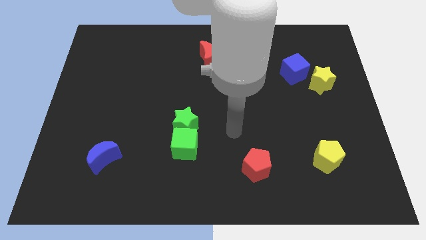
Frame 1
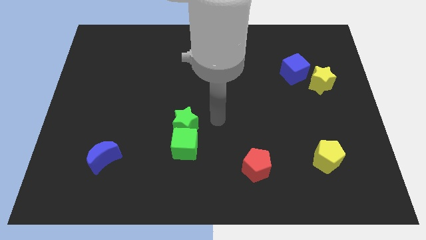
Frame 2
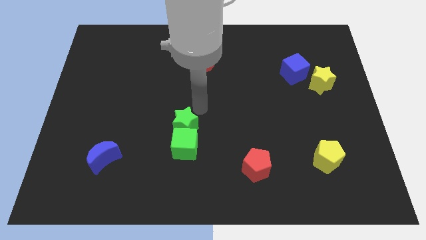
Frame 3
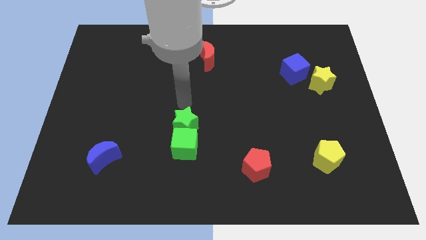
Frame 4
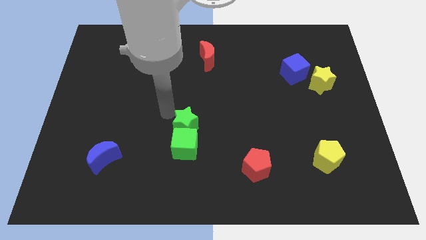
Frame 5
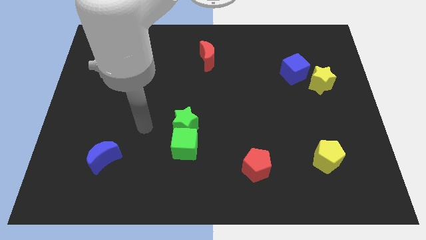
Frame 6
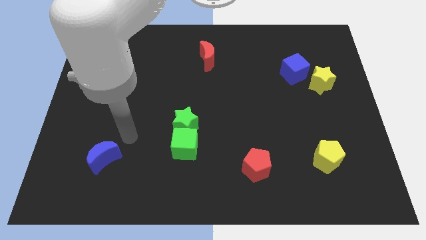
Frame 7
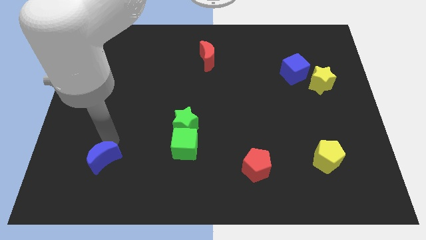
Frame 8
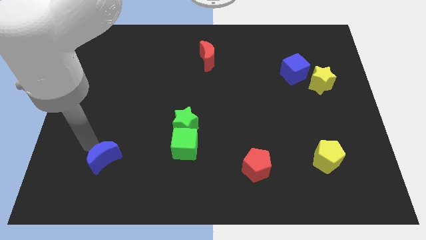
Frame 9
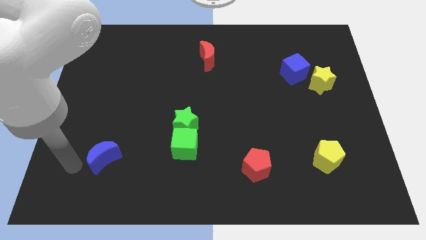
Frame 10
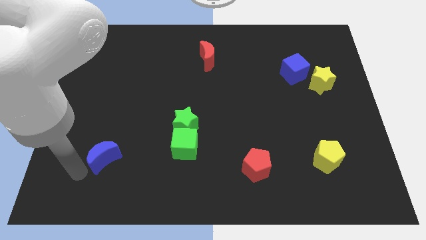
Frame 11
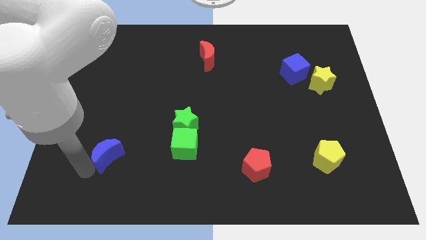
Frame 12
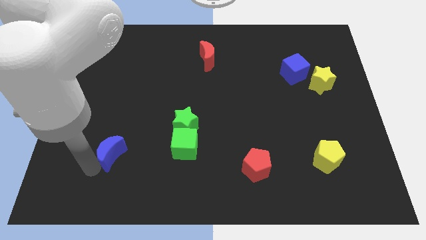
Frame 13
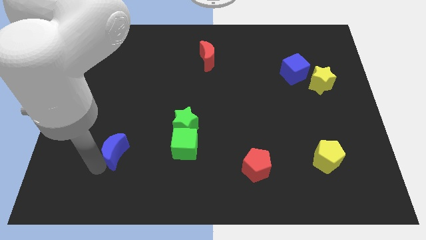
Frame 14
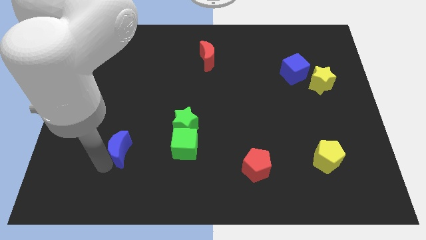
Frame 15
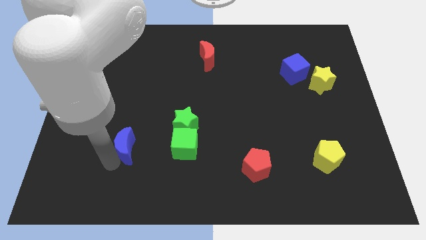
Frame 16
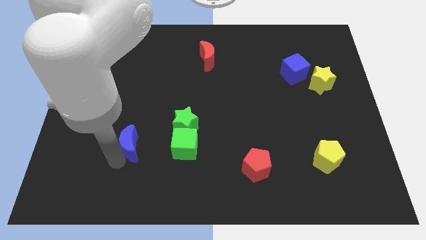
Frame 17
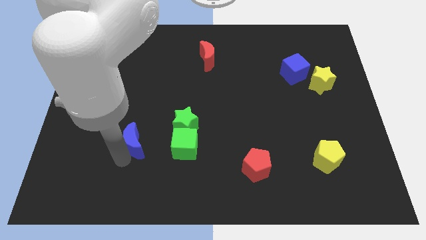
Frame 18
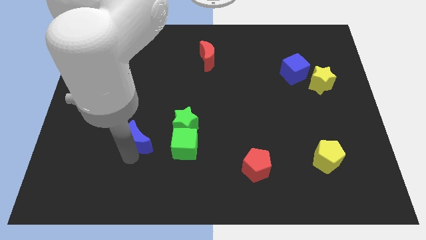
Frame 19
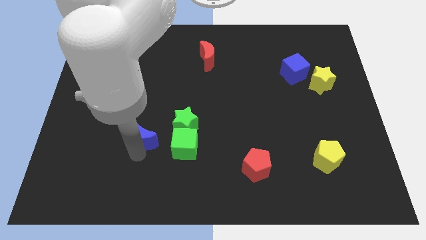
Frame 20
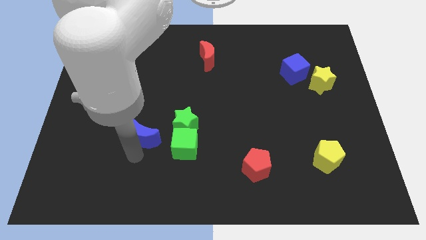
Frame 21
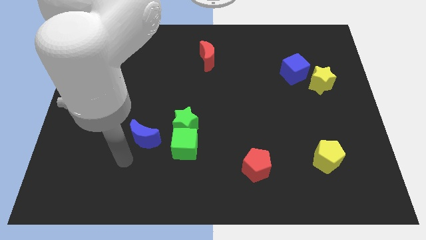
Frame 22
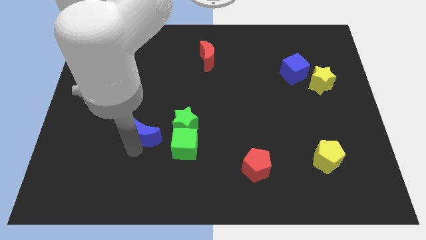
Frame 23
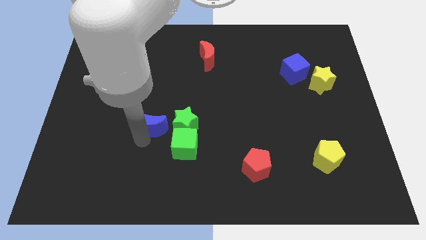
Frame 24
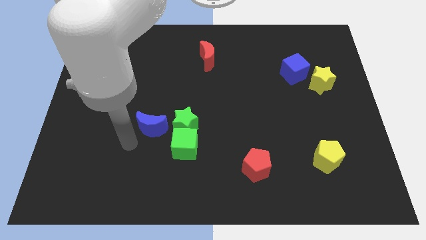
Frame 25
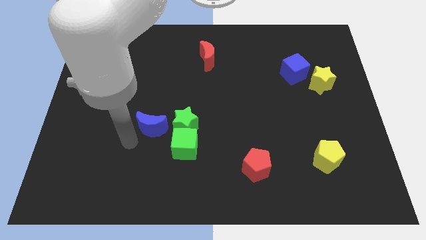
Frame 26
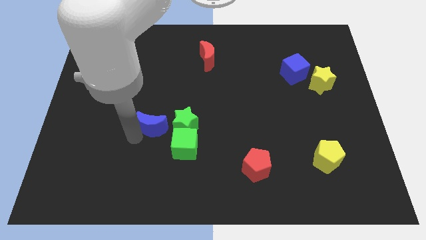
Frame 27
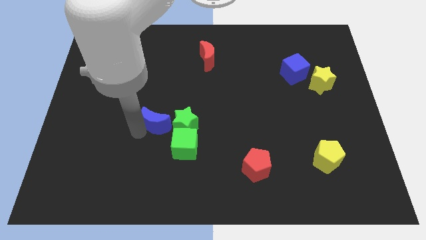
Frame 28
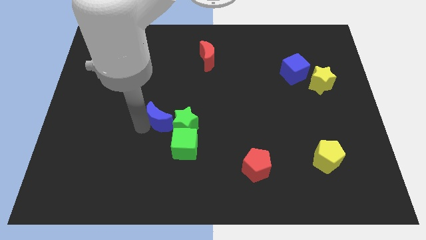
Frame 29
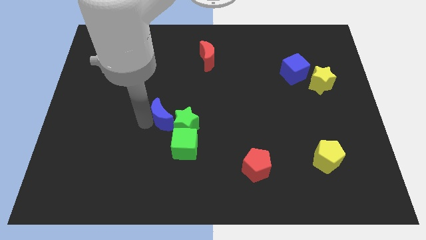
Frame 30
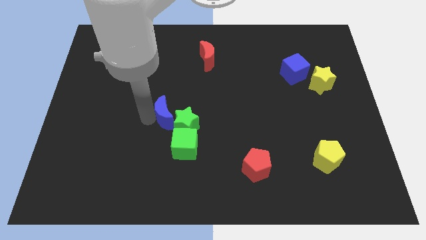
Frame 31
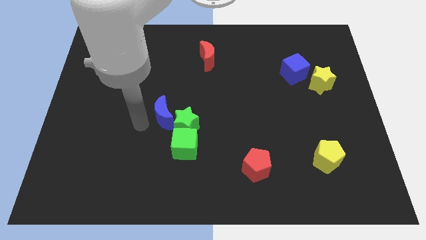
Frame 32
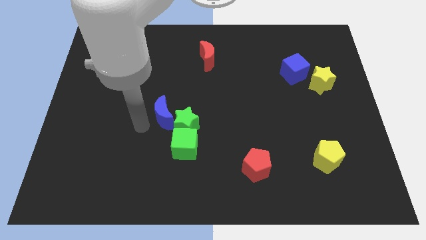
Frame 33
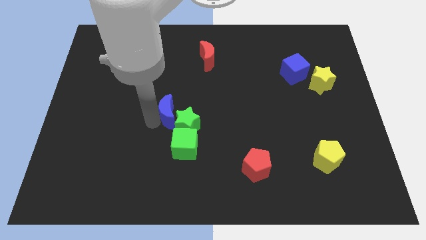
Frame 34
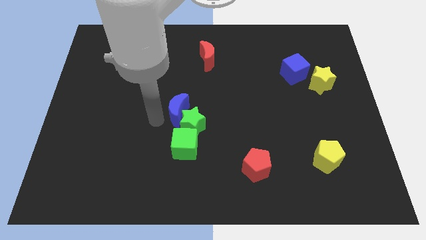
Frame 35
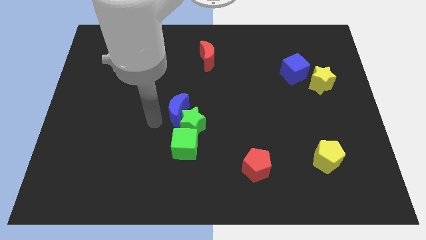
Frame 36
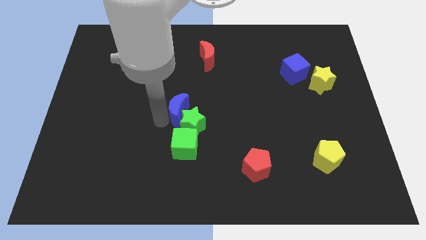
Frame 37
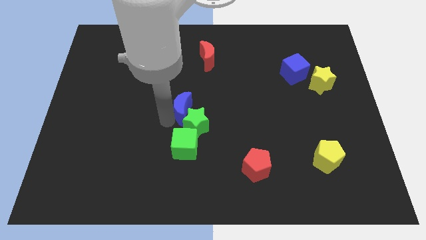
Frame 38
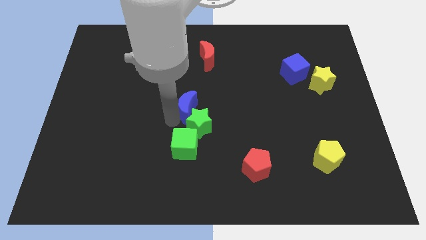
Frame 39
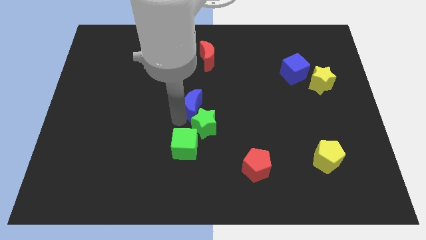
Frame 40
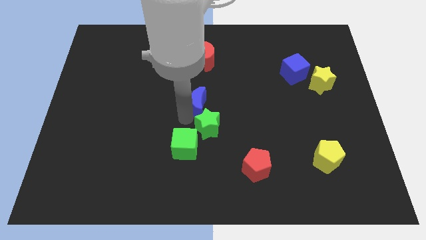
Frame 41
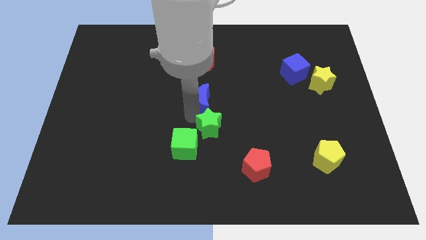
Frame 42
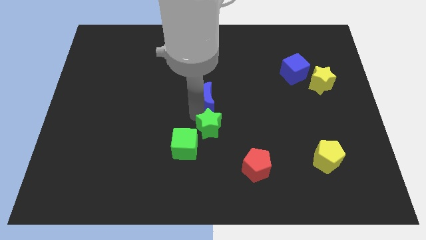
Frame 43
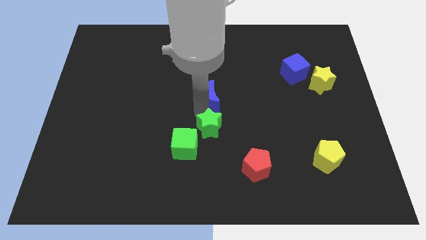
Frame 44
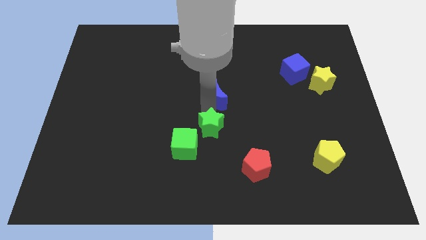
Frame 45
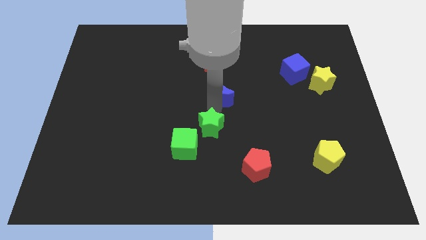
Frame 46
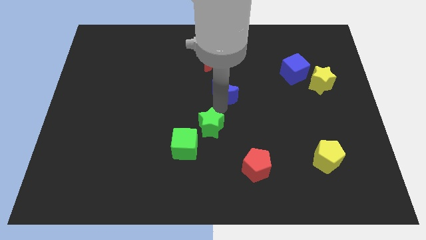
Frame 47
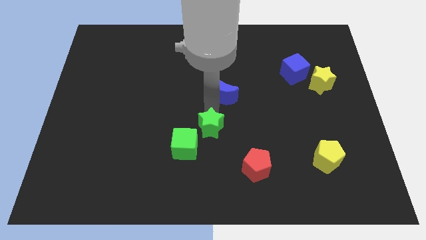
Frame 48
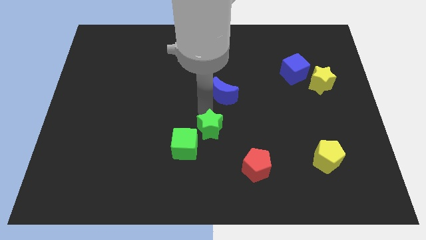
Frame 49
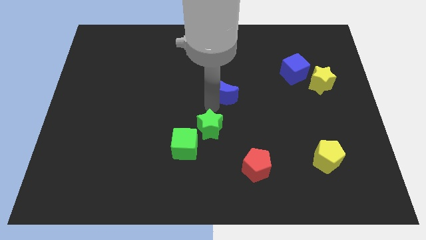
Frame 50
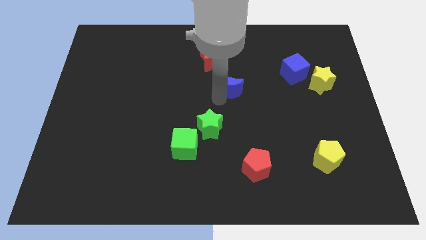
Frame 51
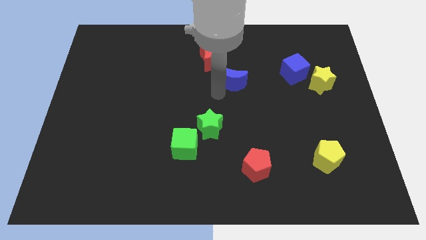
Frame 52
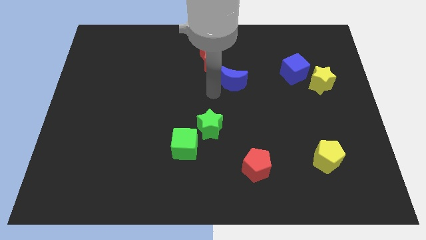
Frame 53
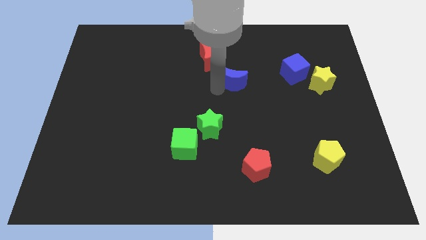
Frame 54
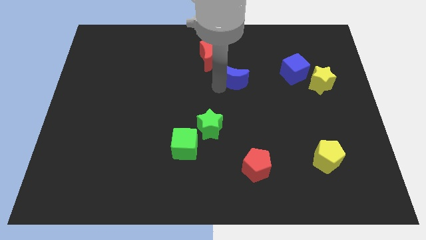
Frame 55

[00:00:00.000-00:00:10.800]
slide the blue moon to the left side of the blue cube
